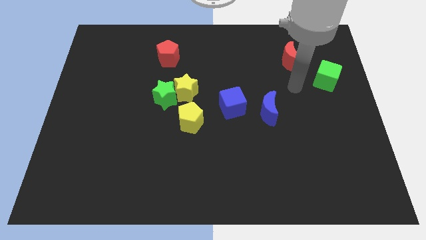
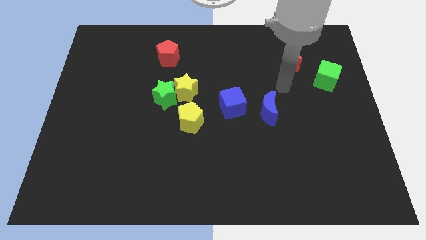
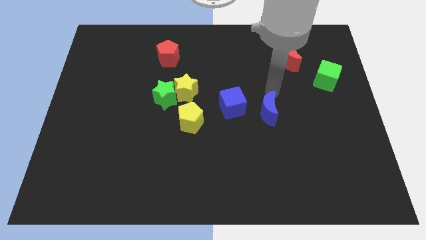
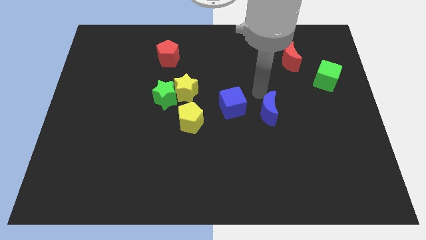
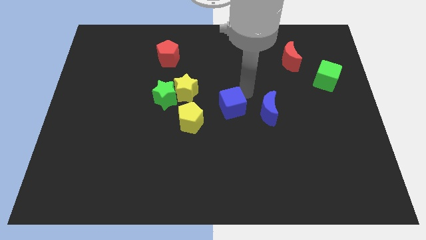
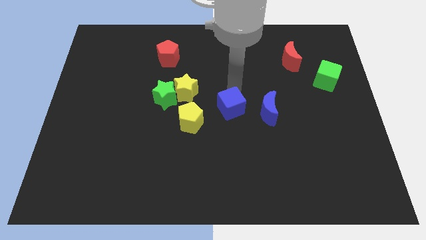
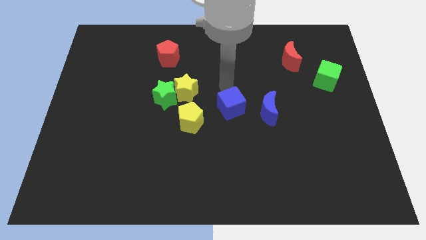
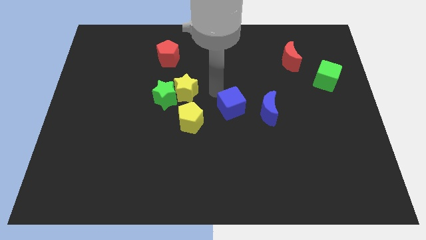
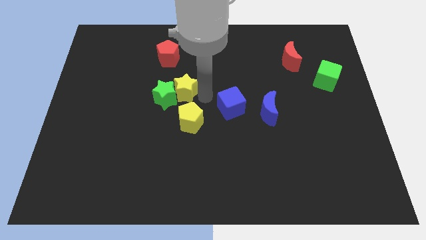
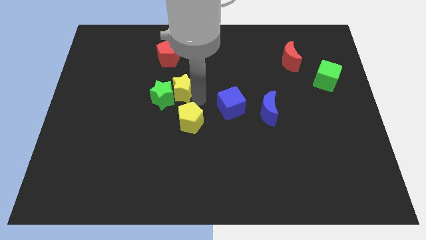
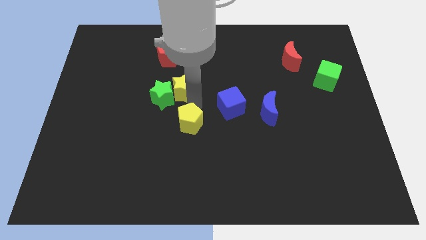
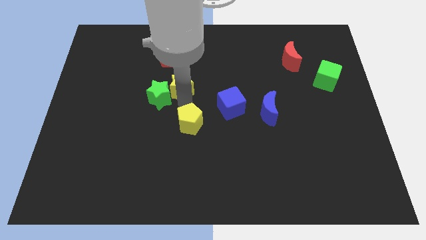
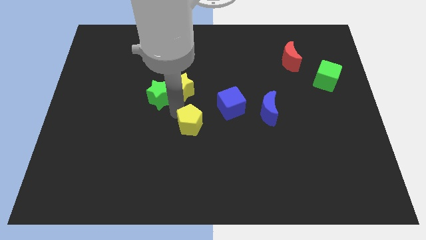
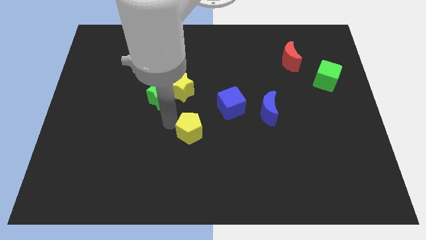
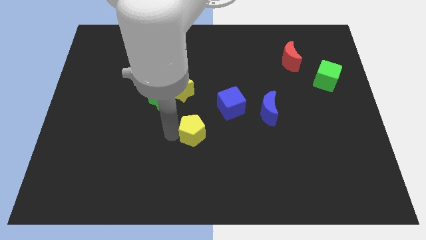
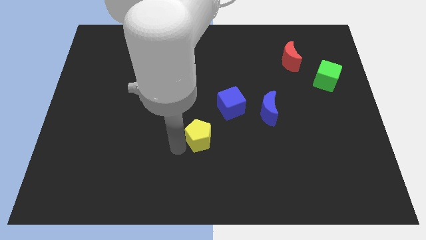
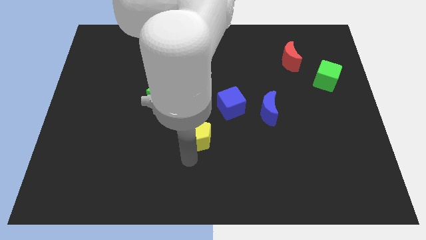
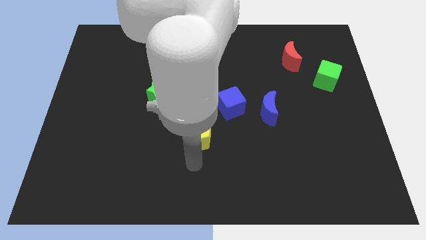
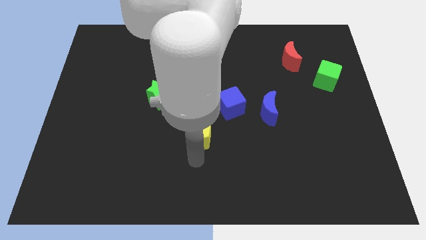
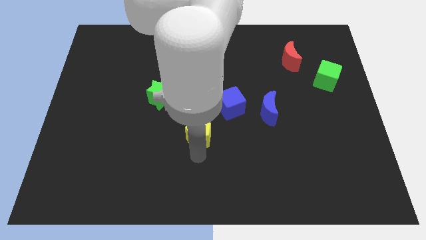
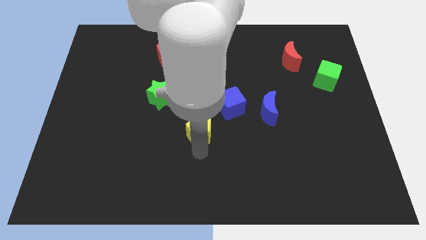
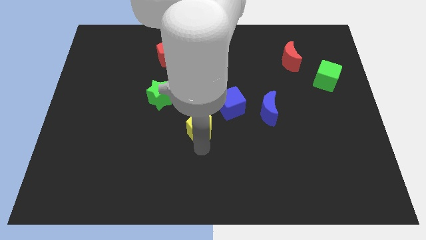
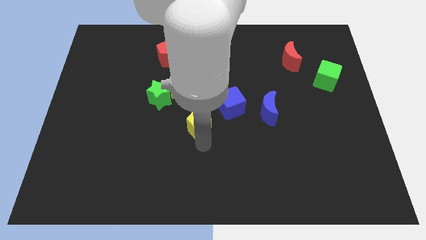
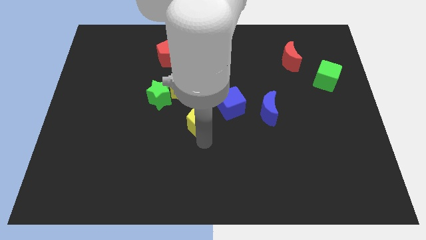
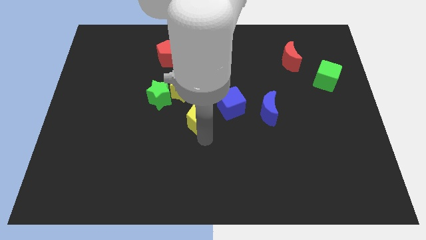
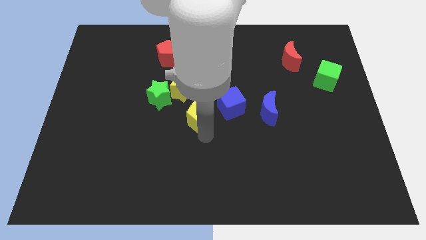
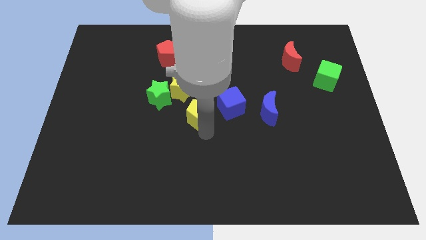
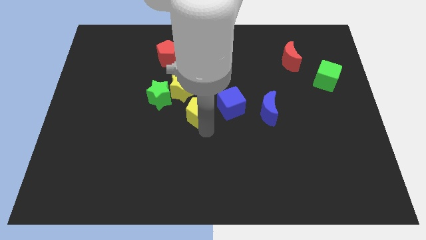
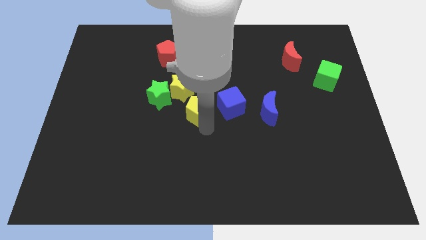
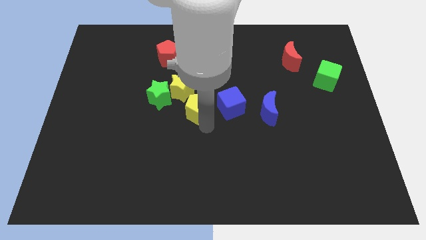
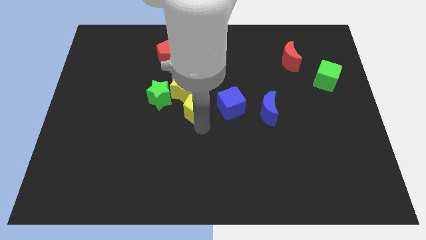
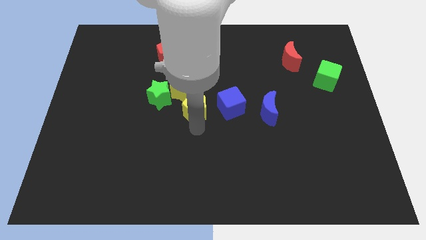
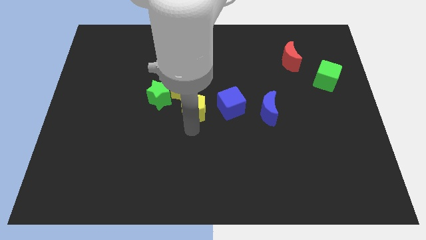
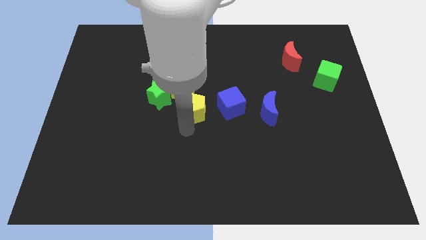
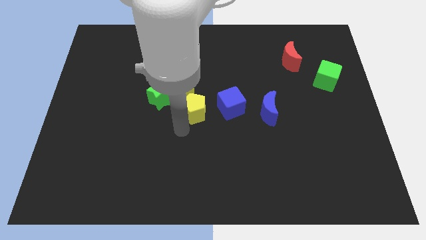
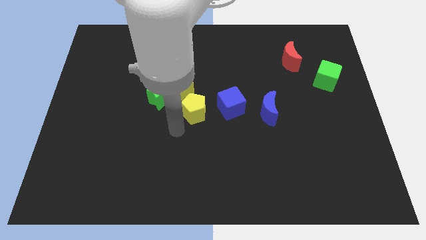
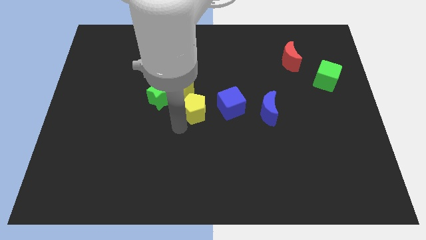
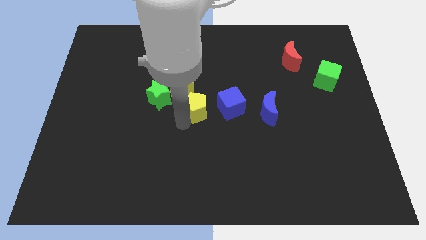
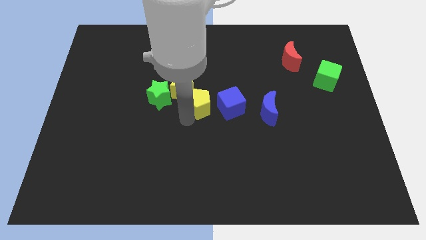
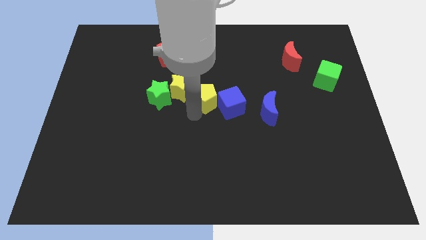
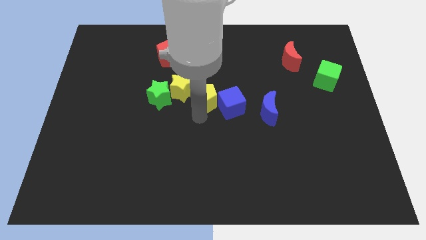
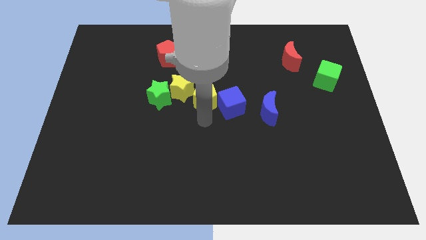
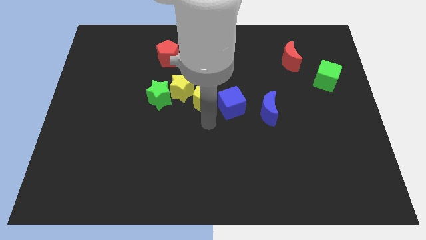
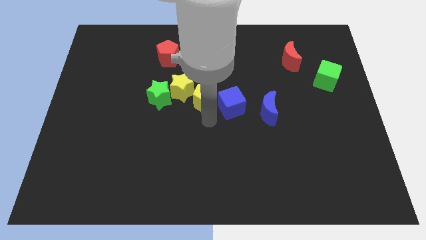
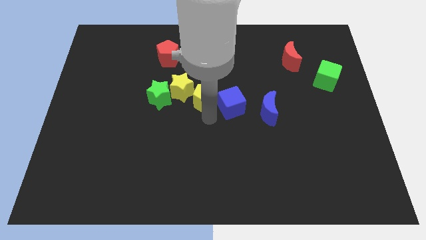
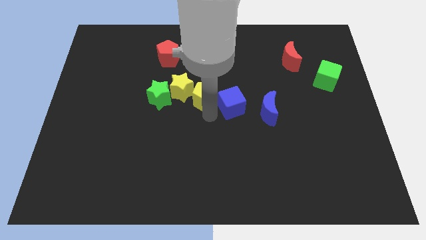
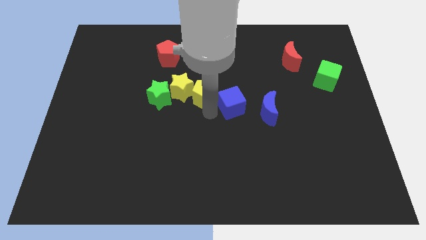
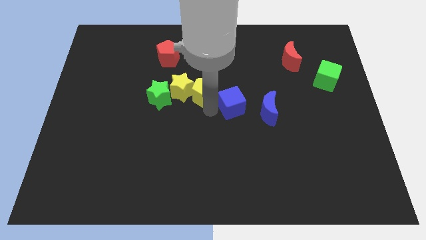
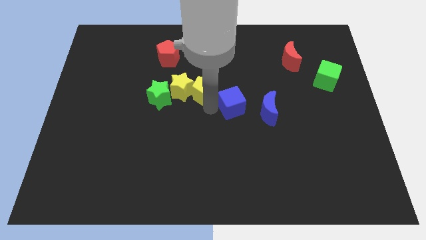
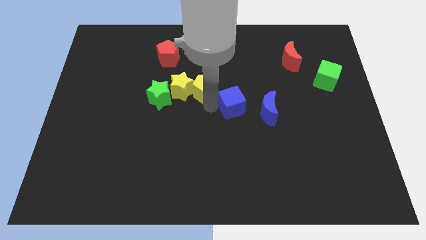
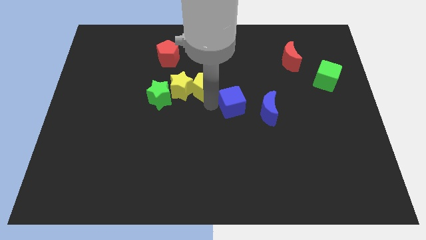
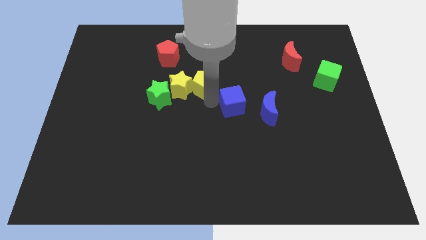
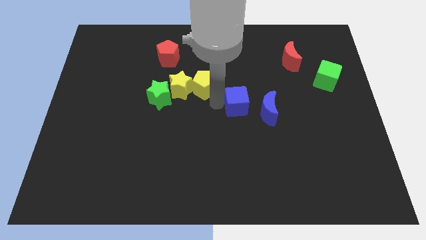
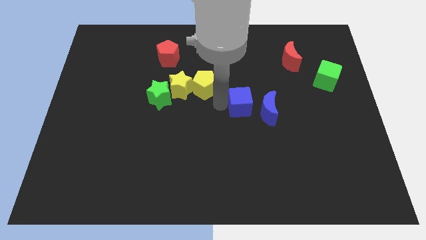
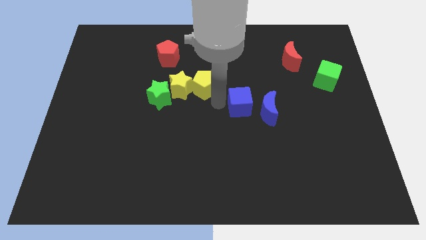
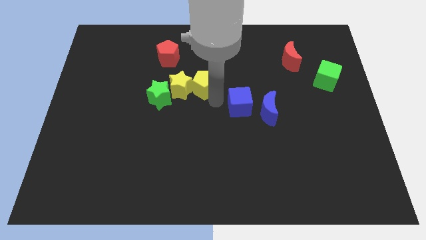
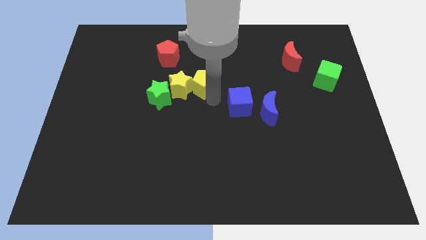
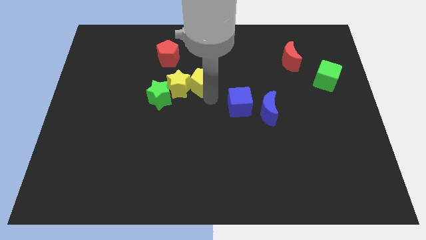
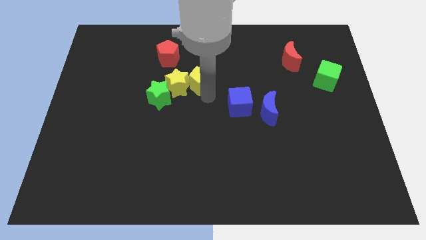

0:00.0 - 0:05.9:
put the yellow pentagon to the bottom right side of the red pentagon

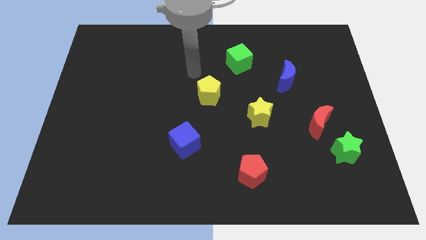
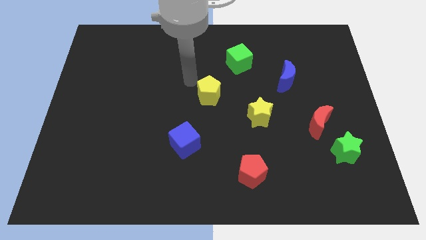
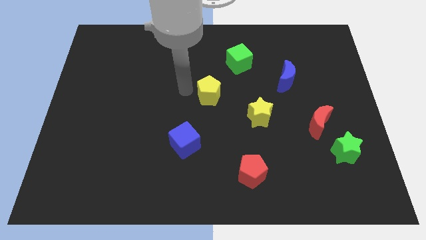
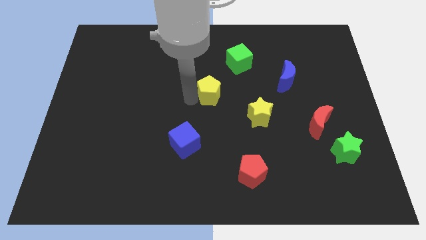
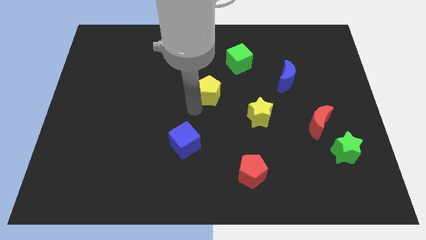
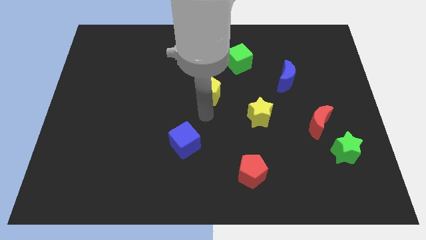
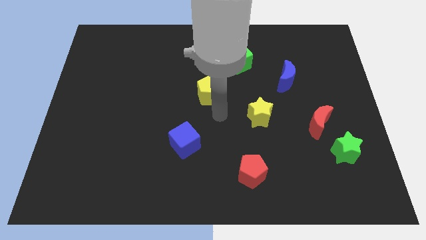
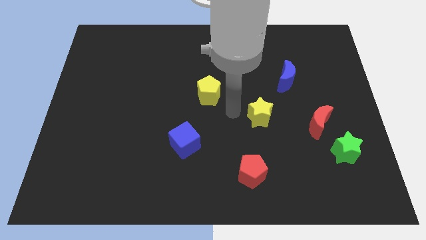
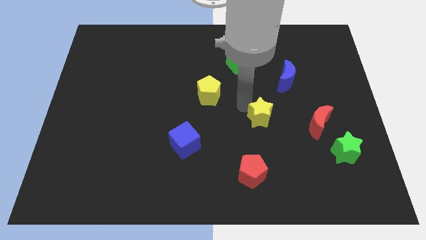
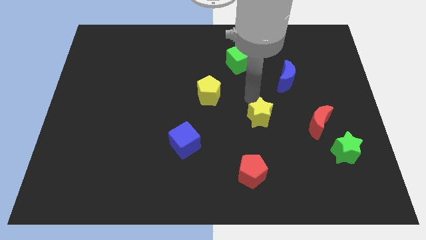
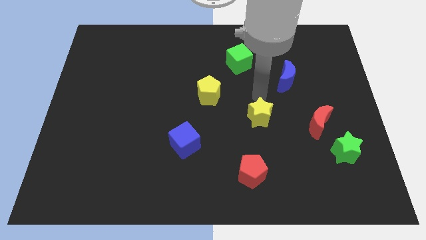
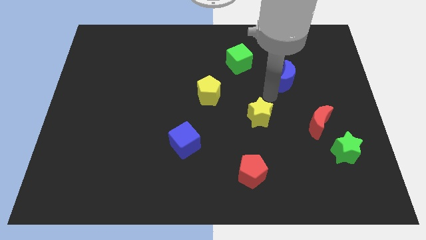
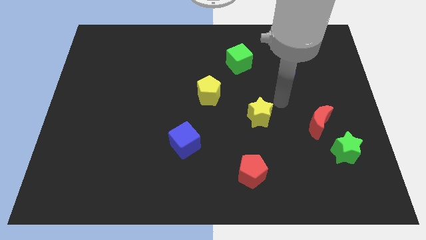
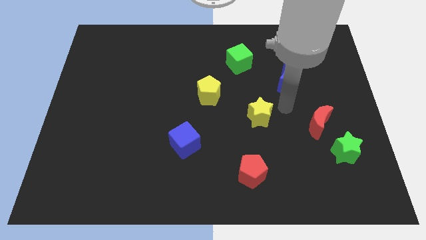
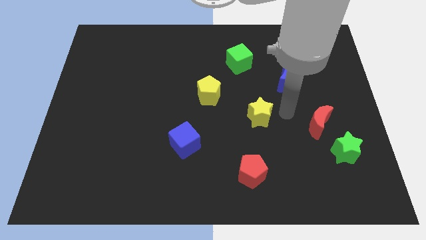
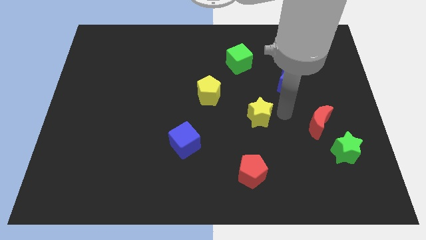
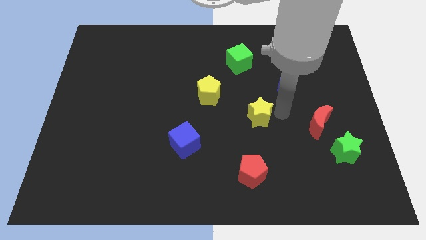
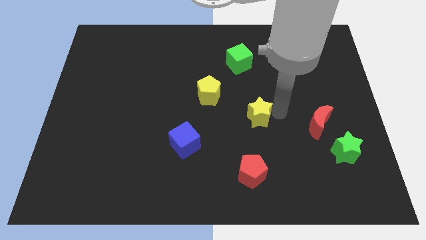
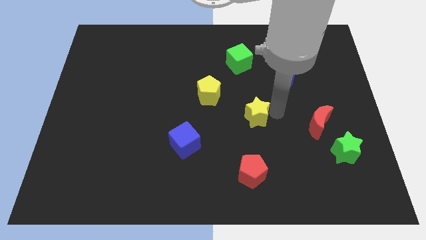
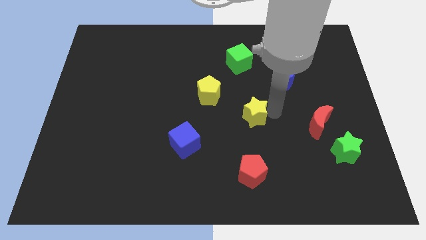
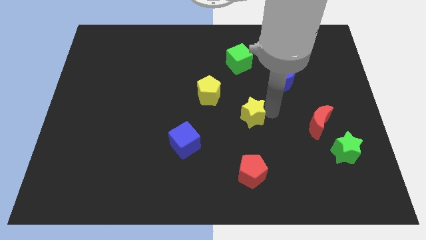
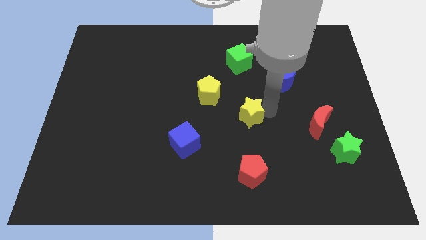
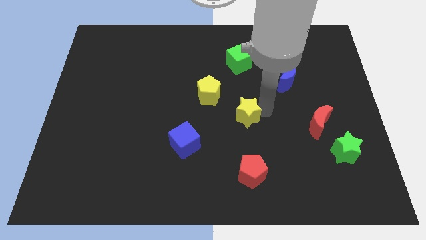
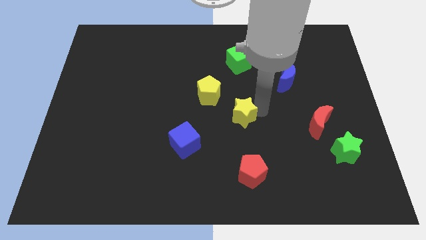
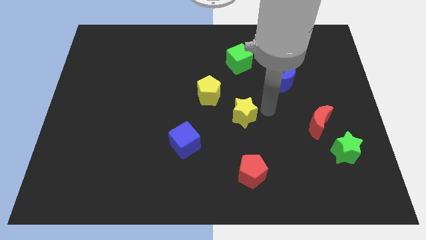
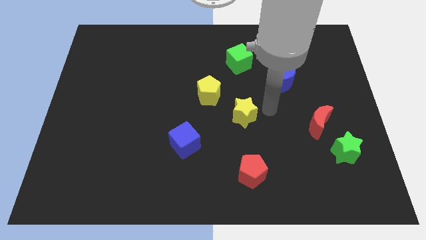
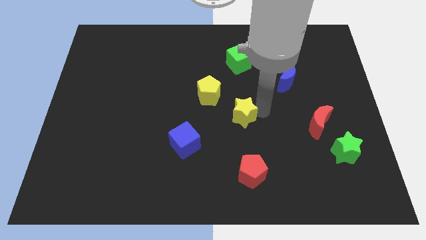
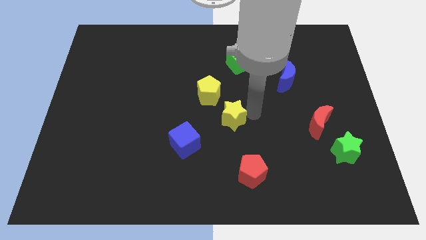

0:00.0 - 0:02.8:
push the yellow star to the top right side of the blue cube
